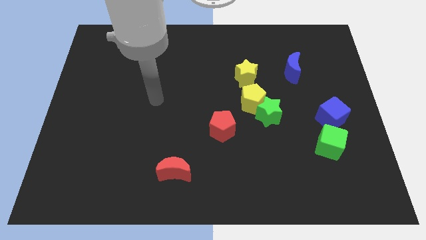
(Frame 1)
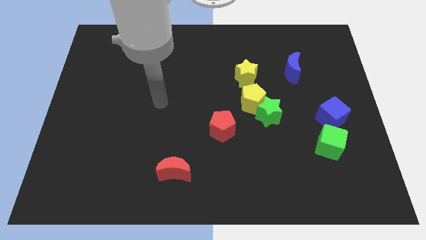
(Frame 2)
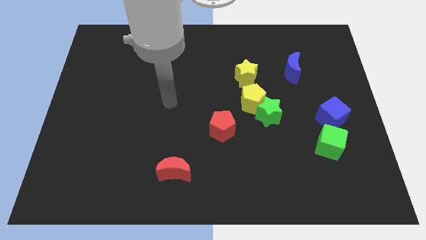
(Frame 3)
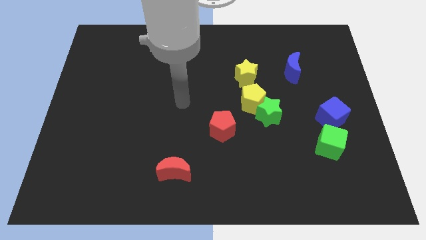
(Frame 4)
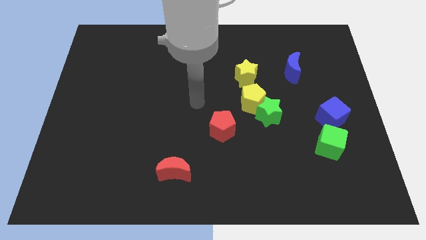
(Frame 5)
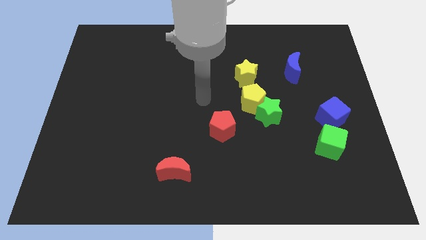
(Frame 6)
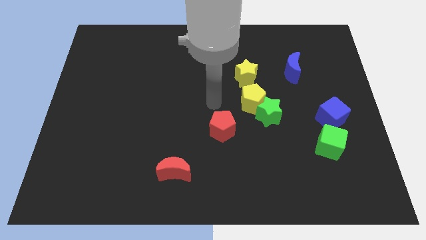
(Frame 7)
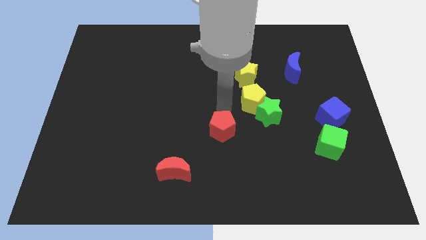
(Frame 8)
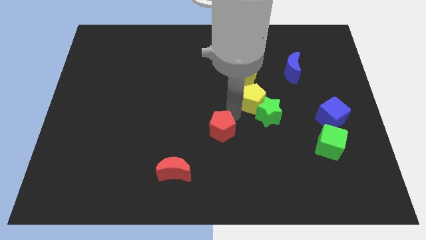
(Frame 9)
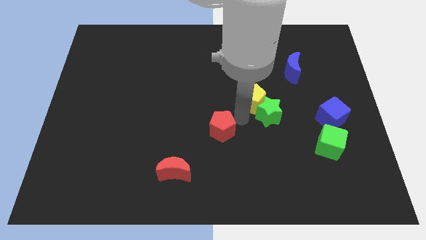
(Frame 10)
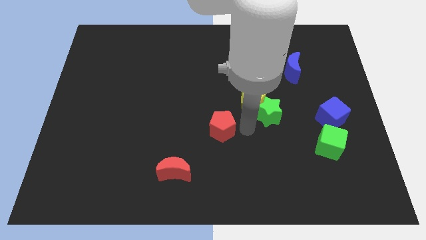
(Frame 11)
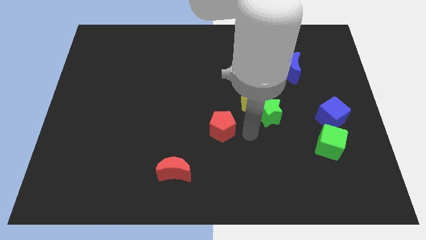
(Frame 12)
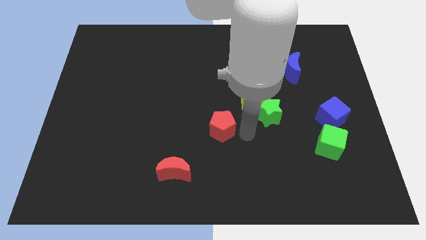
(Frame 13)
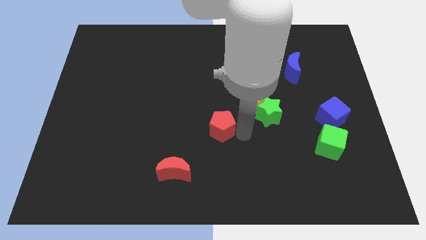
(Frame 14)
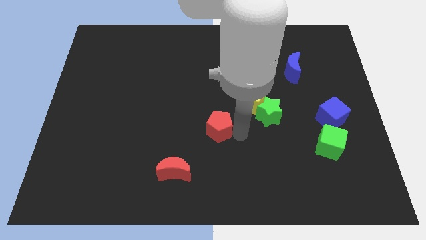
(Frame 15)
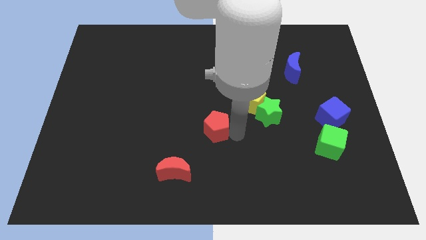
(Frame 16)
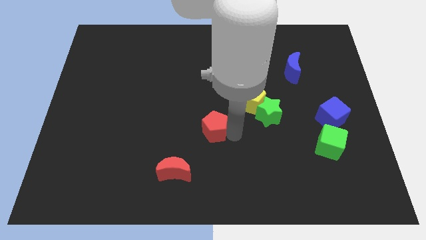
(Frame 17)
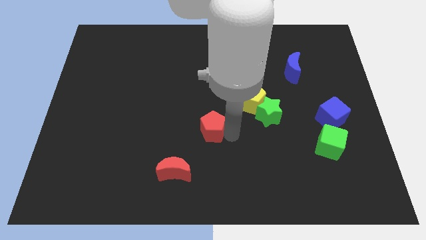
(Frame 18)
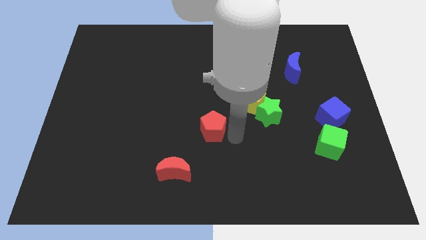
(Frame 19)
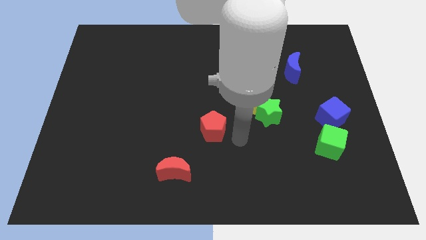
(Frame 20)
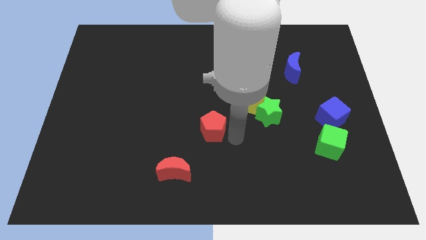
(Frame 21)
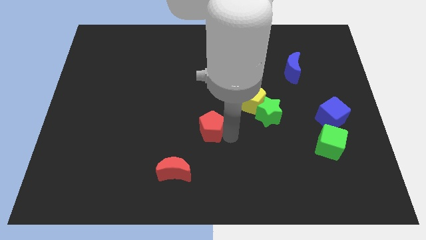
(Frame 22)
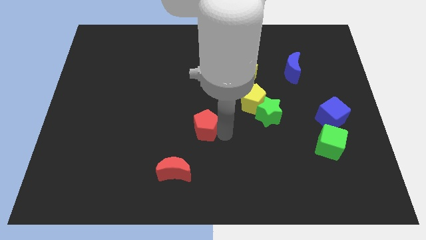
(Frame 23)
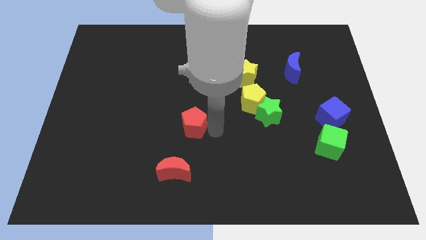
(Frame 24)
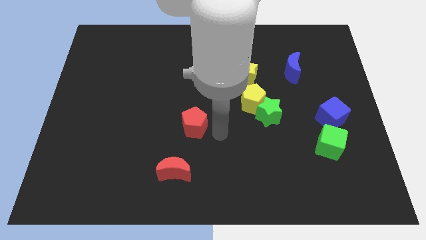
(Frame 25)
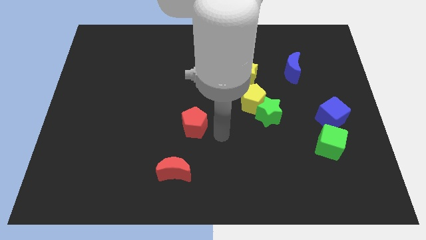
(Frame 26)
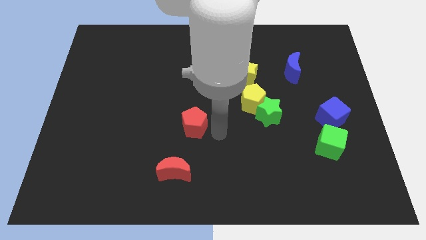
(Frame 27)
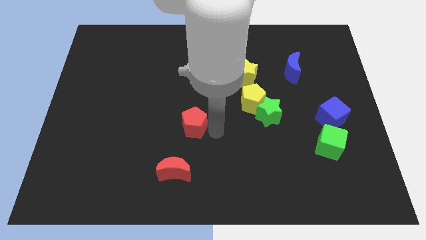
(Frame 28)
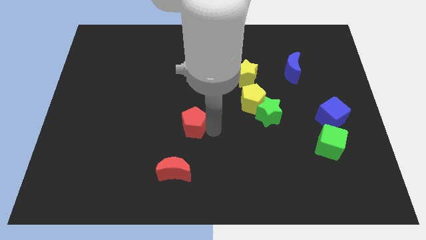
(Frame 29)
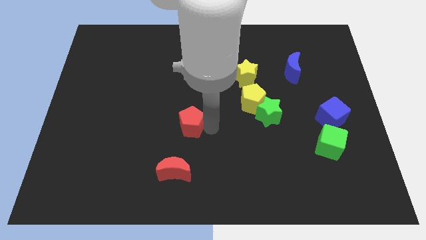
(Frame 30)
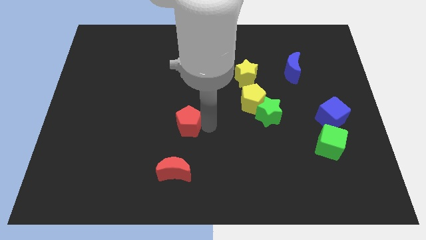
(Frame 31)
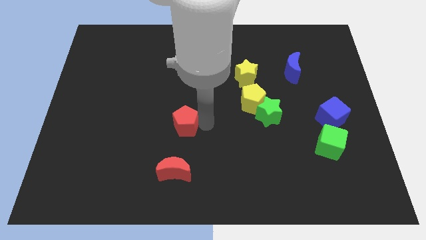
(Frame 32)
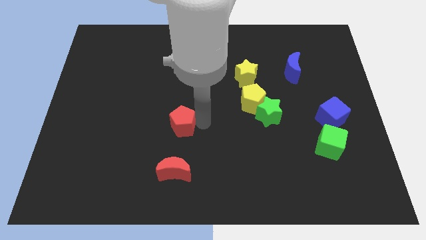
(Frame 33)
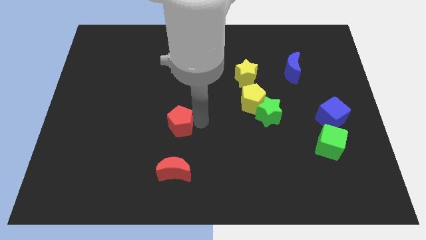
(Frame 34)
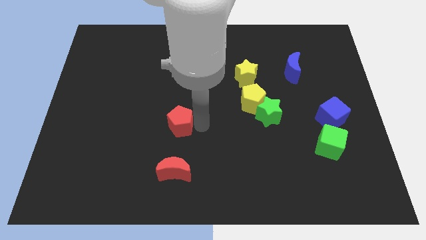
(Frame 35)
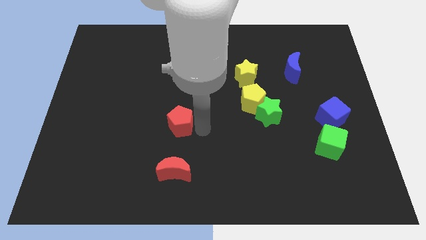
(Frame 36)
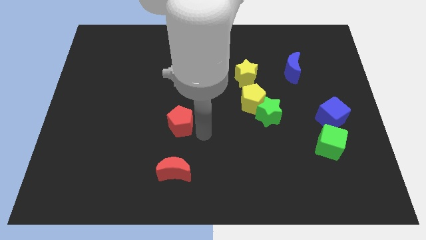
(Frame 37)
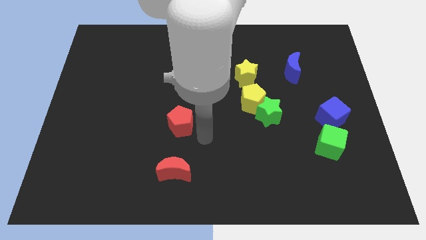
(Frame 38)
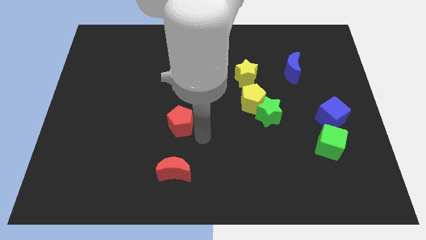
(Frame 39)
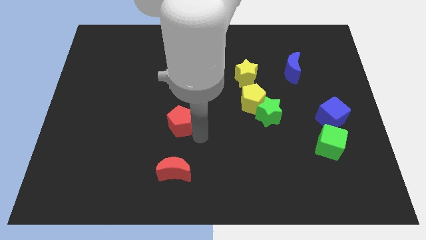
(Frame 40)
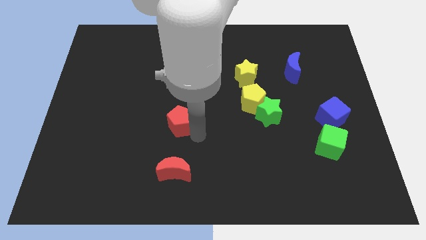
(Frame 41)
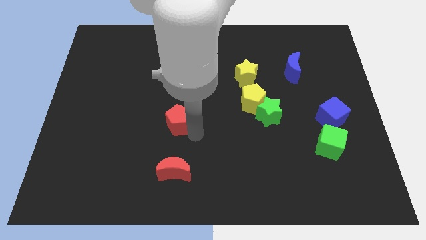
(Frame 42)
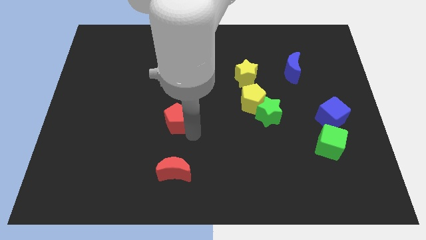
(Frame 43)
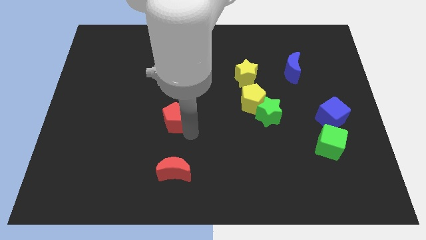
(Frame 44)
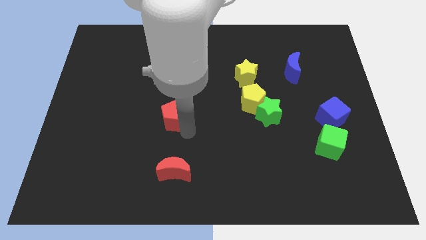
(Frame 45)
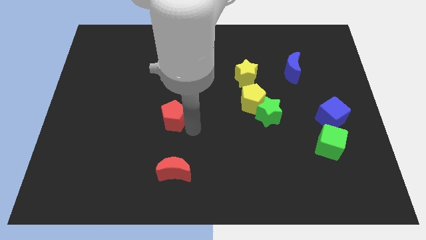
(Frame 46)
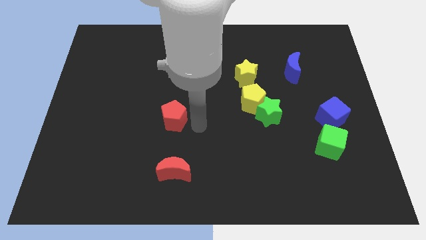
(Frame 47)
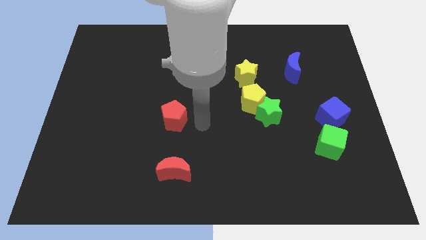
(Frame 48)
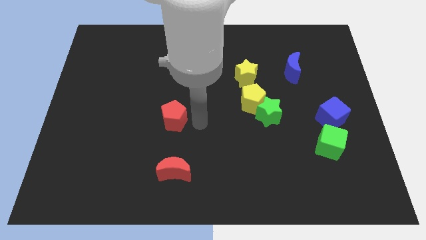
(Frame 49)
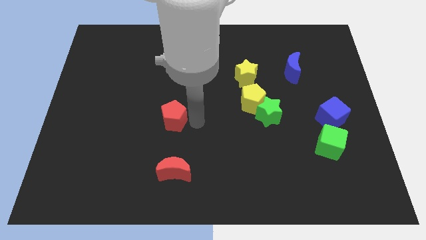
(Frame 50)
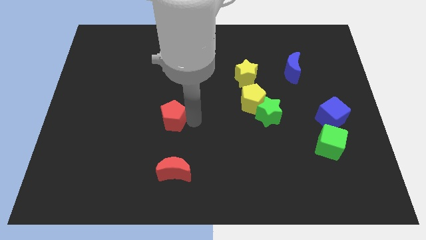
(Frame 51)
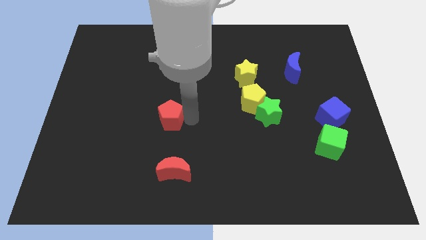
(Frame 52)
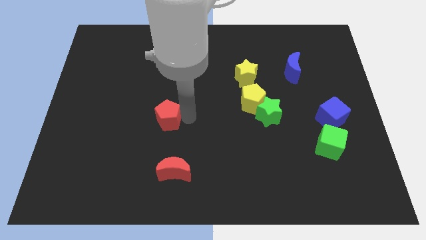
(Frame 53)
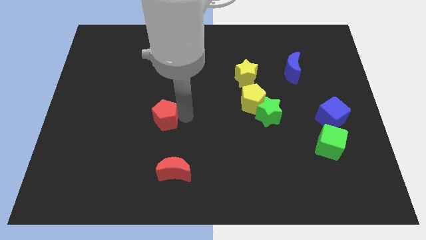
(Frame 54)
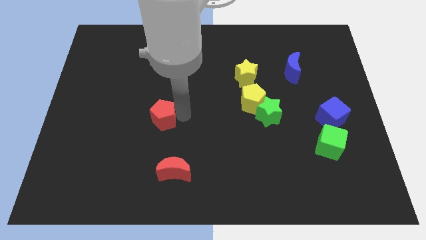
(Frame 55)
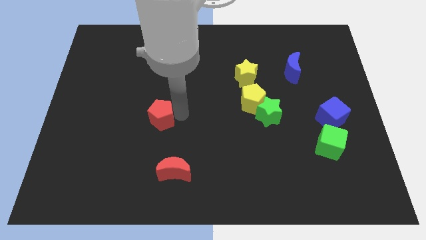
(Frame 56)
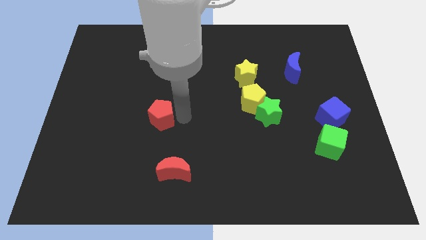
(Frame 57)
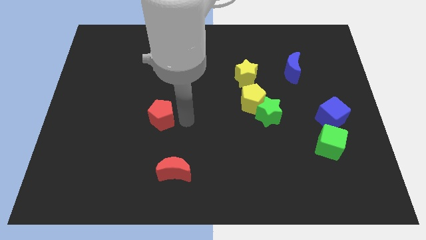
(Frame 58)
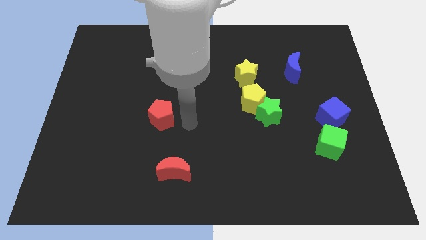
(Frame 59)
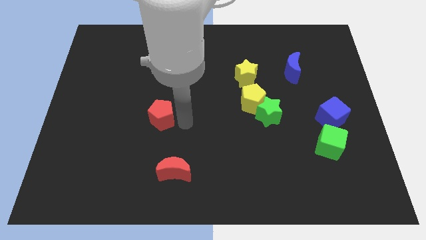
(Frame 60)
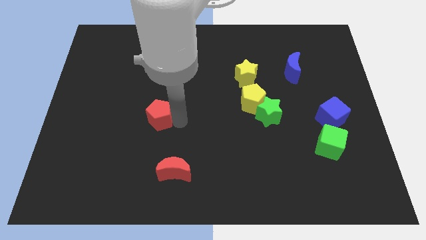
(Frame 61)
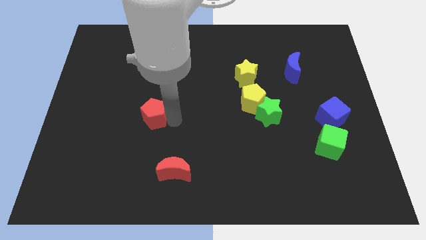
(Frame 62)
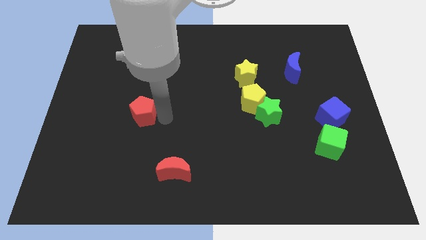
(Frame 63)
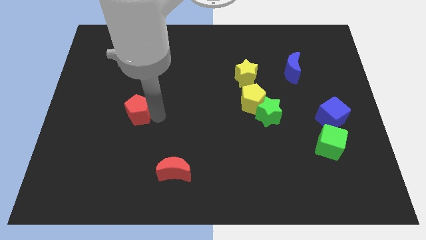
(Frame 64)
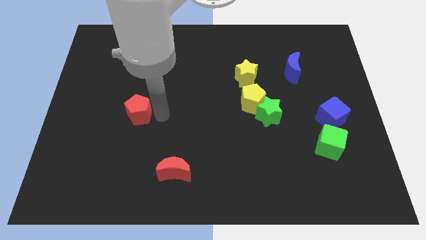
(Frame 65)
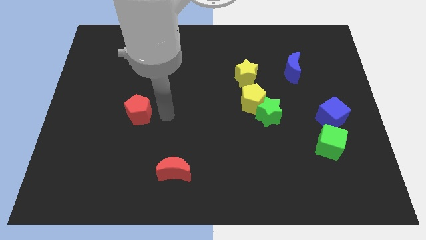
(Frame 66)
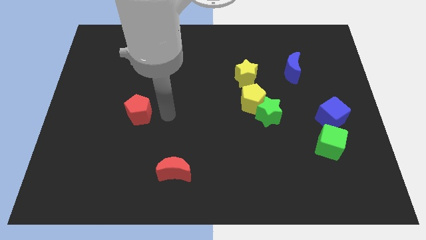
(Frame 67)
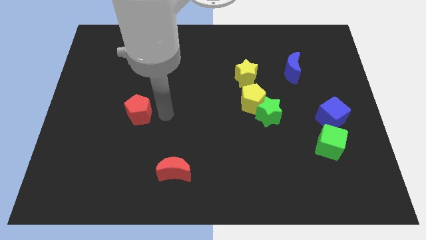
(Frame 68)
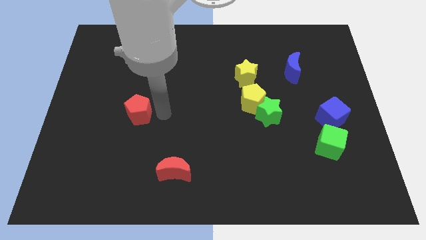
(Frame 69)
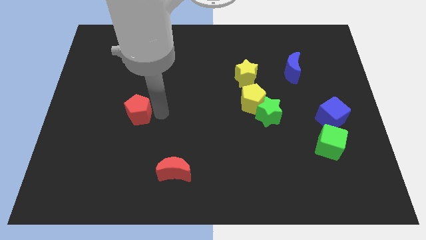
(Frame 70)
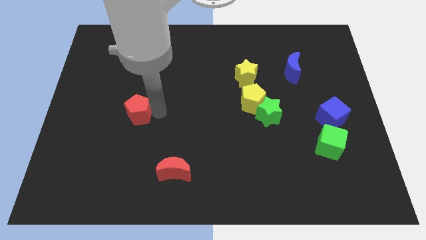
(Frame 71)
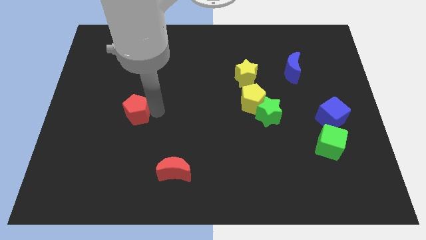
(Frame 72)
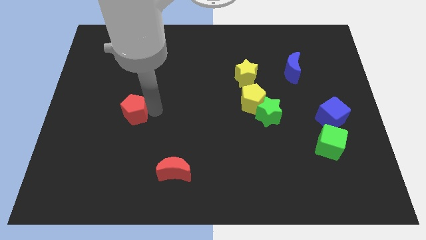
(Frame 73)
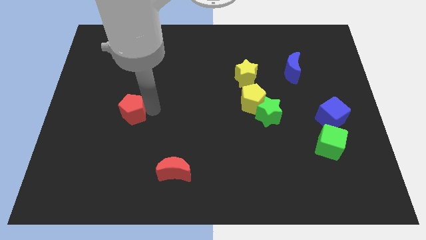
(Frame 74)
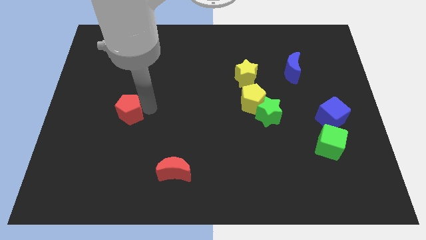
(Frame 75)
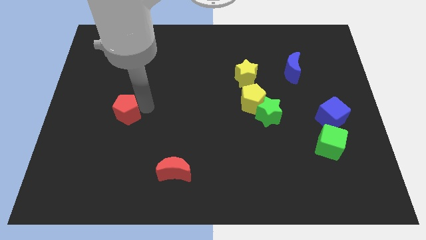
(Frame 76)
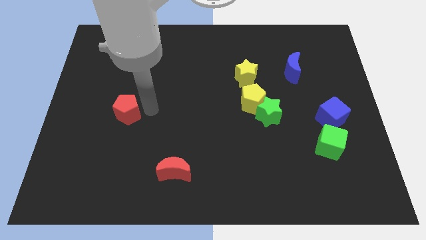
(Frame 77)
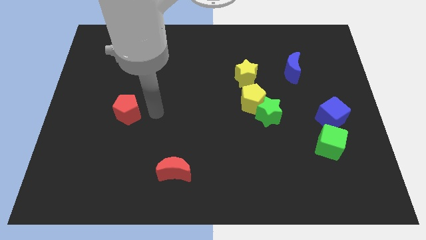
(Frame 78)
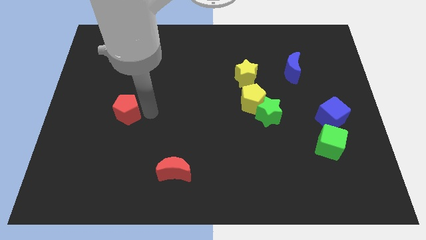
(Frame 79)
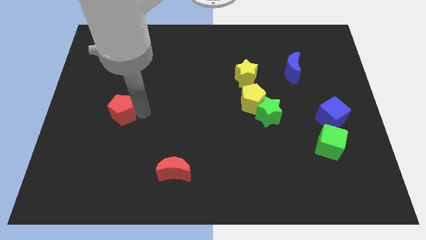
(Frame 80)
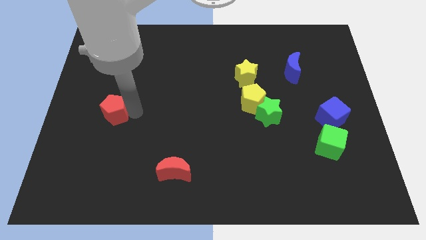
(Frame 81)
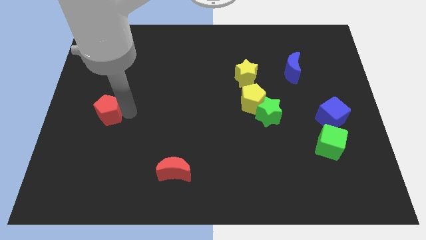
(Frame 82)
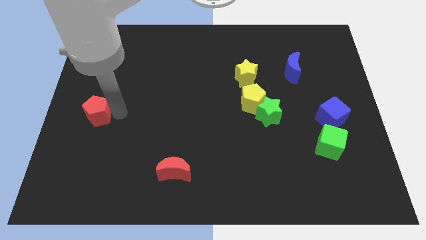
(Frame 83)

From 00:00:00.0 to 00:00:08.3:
push the red pentagon to the left side
